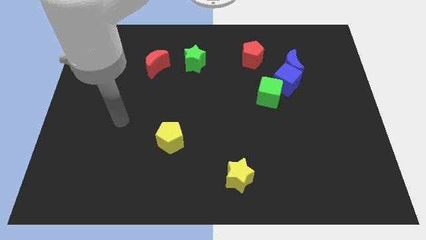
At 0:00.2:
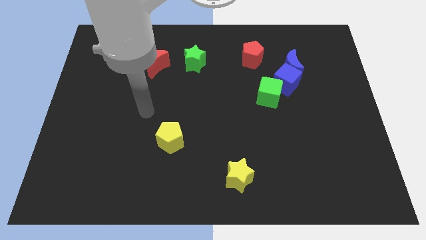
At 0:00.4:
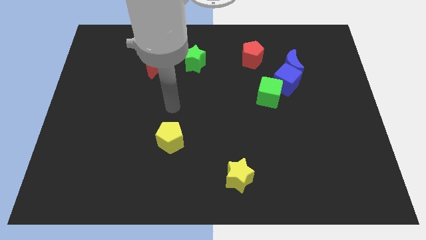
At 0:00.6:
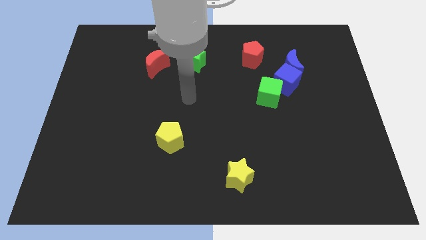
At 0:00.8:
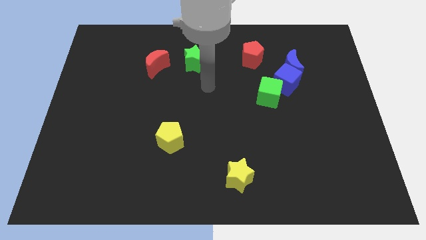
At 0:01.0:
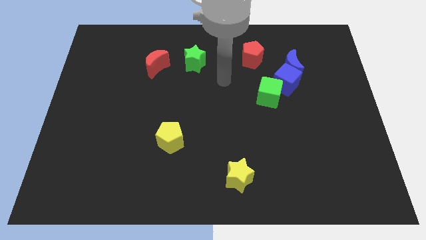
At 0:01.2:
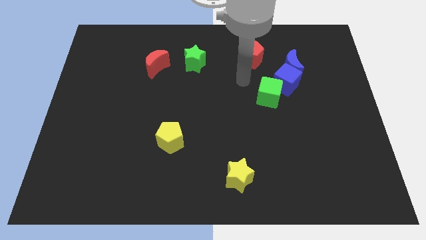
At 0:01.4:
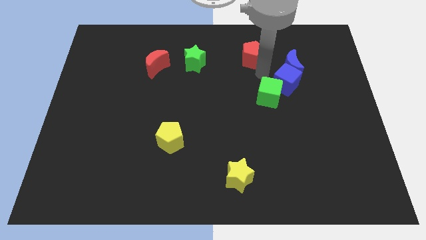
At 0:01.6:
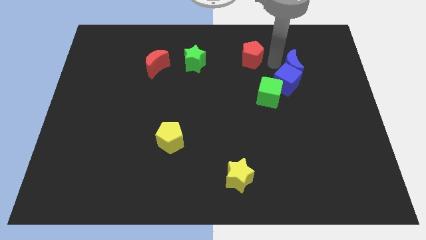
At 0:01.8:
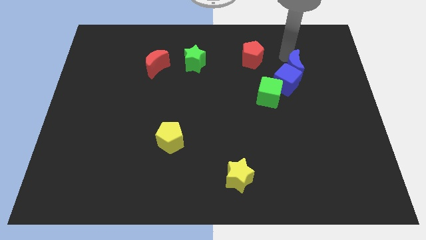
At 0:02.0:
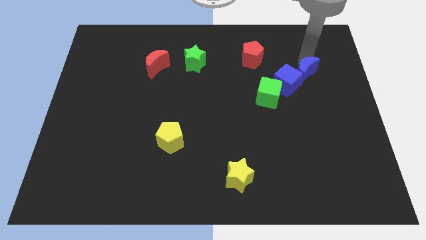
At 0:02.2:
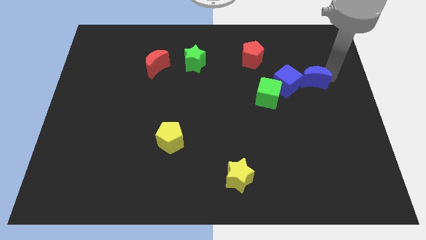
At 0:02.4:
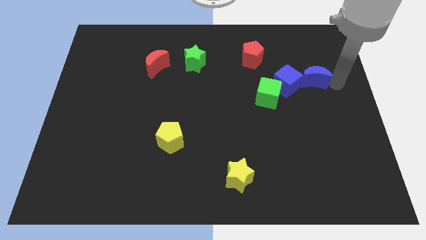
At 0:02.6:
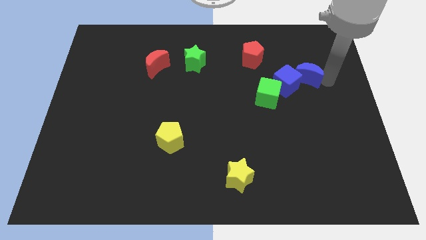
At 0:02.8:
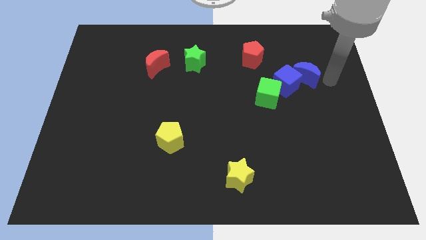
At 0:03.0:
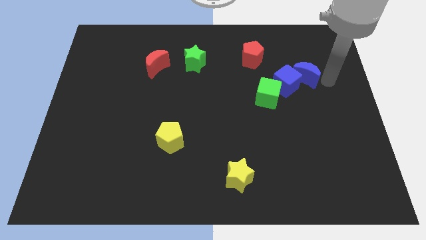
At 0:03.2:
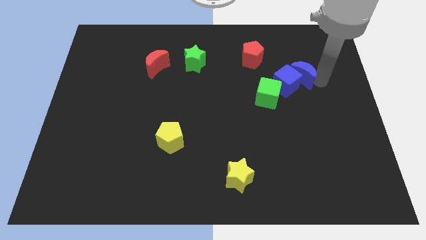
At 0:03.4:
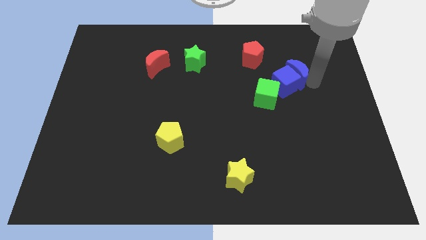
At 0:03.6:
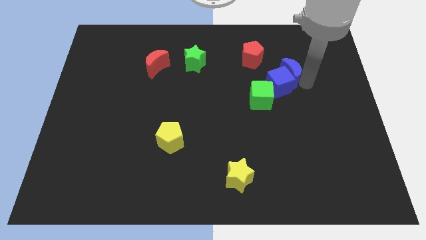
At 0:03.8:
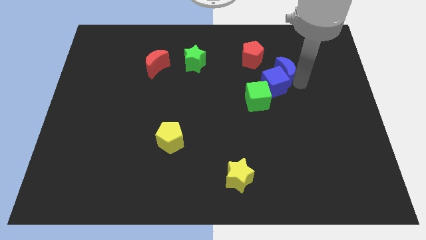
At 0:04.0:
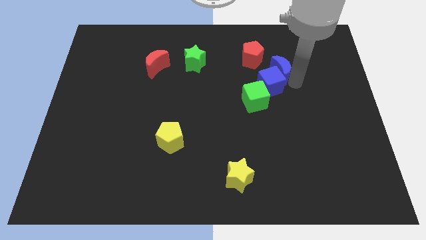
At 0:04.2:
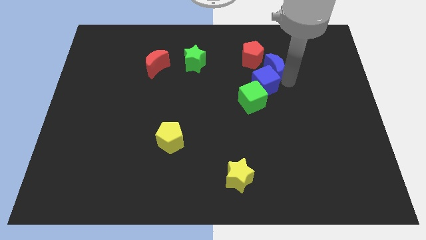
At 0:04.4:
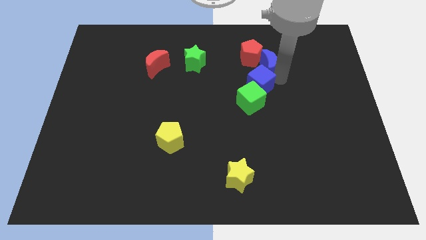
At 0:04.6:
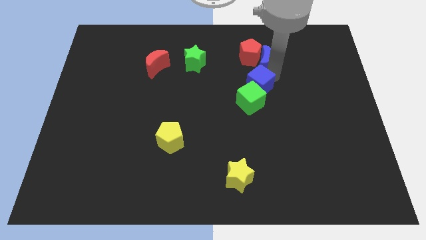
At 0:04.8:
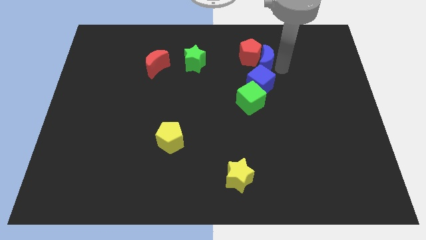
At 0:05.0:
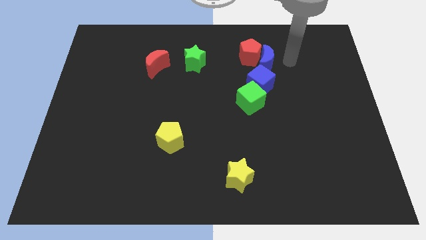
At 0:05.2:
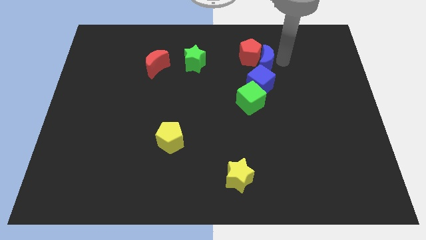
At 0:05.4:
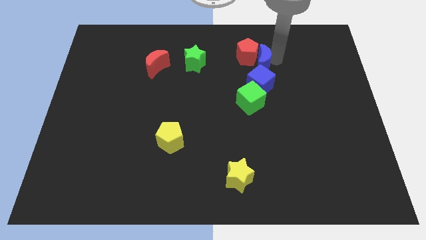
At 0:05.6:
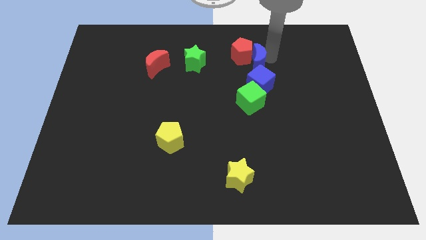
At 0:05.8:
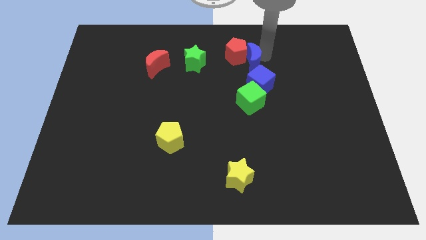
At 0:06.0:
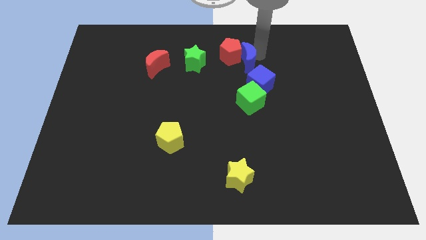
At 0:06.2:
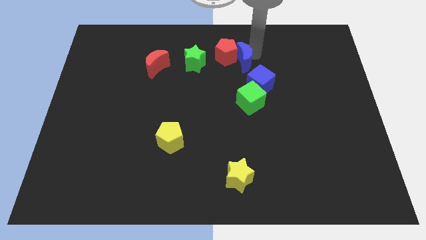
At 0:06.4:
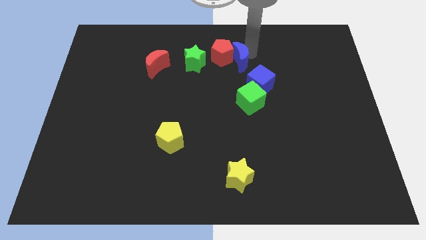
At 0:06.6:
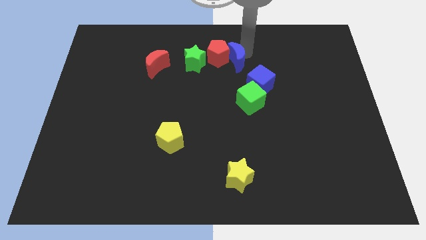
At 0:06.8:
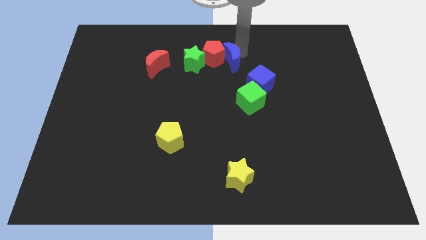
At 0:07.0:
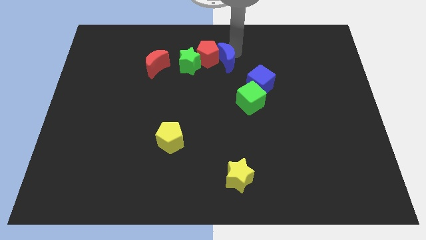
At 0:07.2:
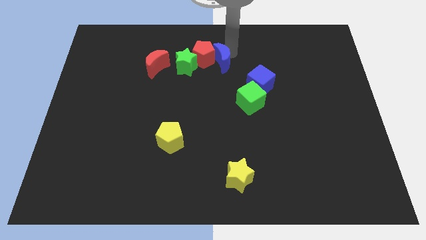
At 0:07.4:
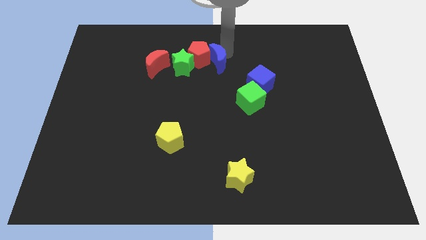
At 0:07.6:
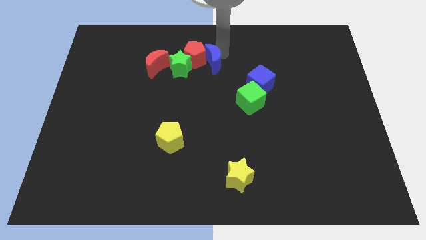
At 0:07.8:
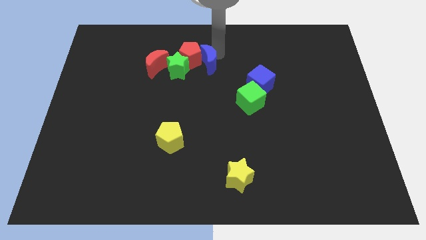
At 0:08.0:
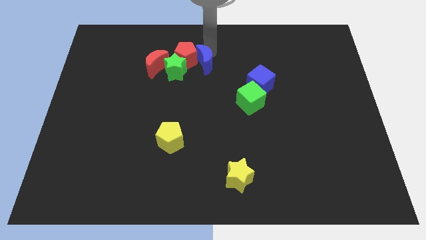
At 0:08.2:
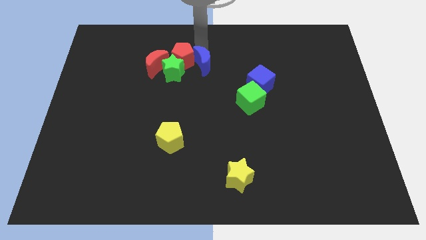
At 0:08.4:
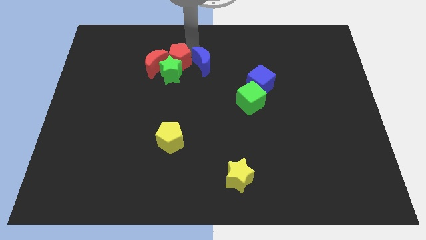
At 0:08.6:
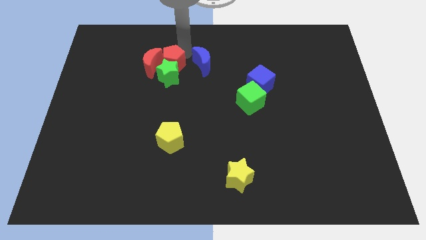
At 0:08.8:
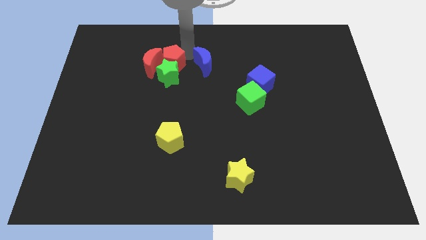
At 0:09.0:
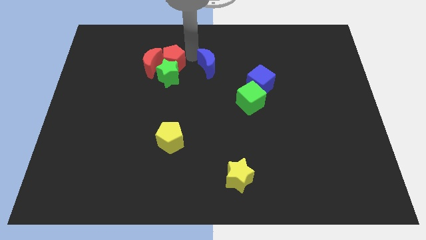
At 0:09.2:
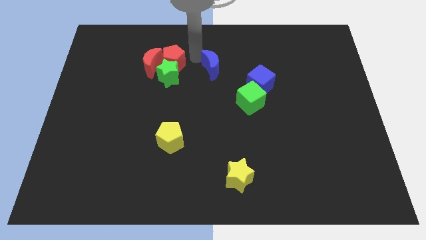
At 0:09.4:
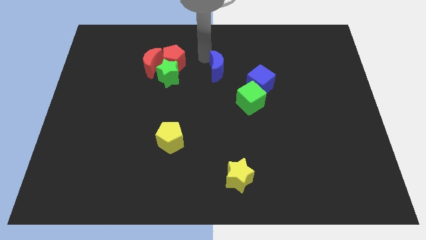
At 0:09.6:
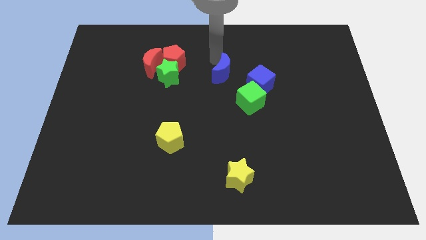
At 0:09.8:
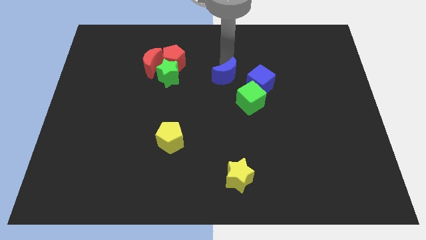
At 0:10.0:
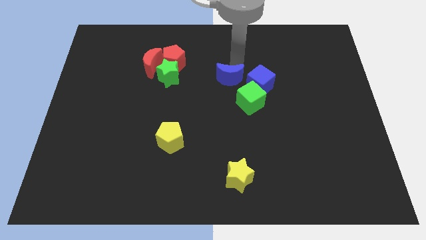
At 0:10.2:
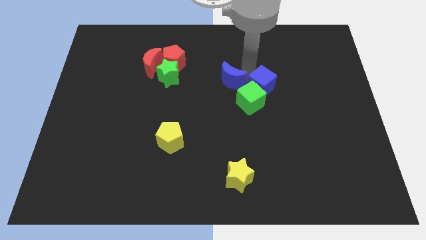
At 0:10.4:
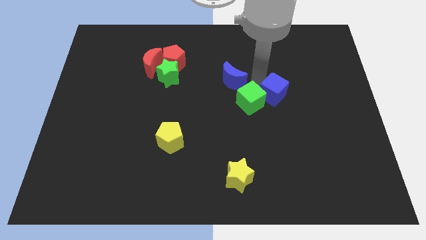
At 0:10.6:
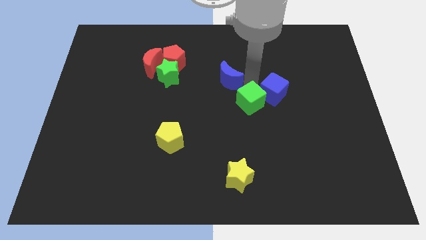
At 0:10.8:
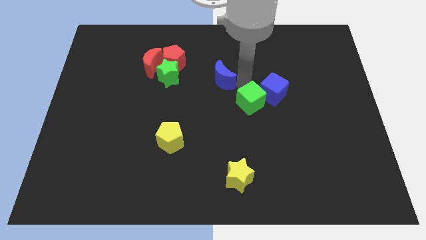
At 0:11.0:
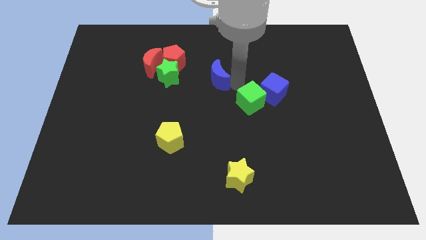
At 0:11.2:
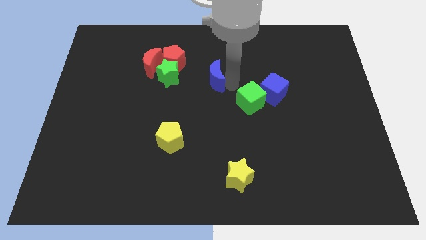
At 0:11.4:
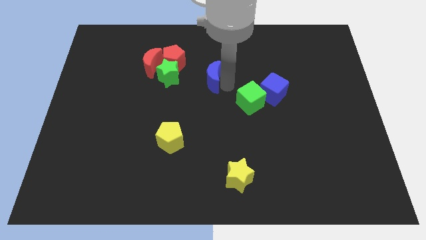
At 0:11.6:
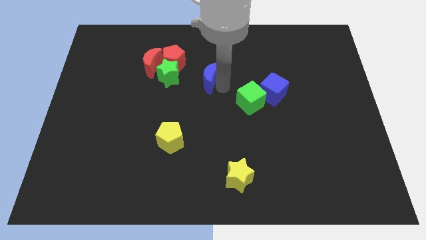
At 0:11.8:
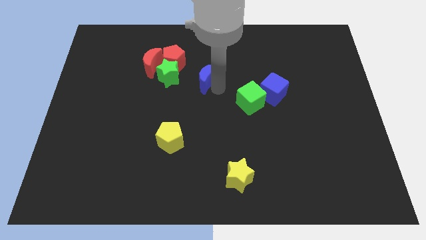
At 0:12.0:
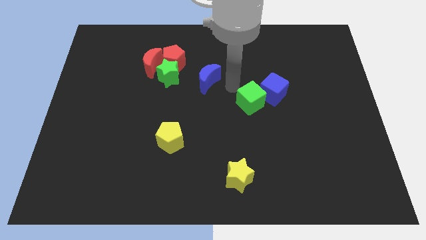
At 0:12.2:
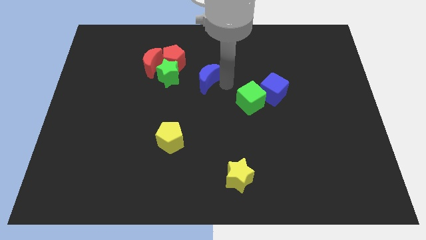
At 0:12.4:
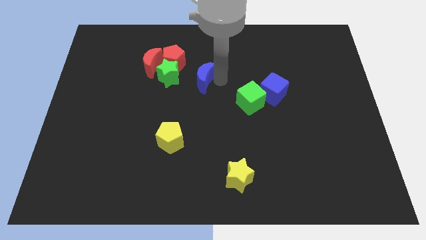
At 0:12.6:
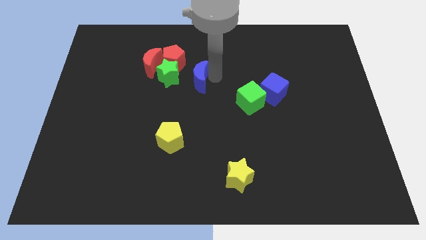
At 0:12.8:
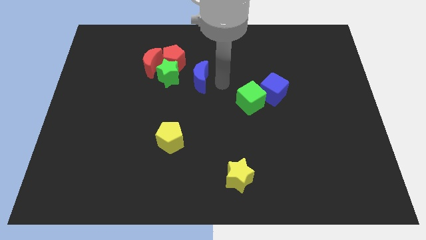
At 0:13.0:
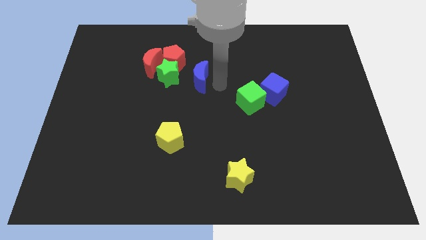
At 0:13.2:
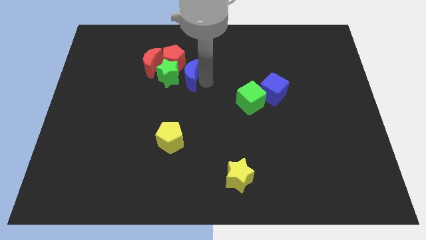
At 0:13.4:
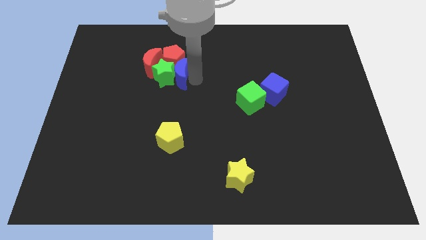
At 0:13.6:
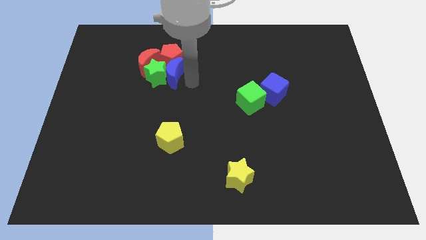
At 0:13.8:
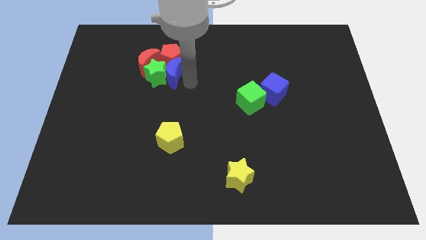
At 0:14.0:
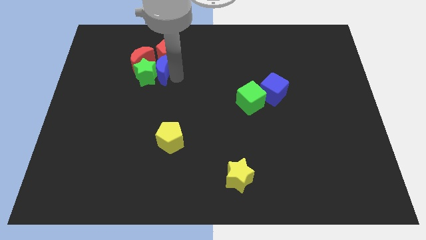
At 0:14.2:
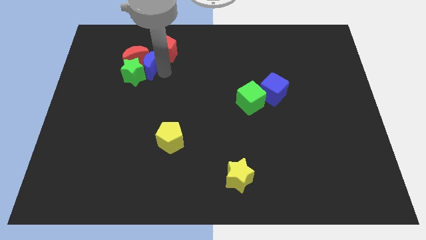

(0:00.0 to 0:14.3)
move the blue moon close to the red moon
